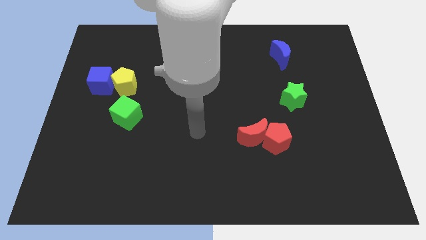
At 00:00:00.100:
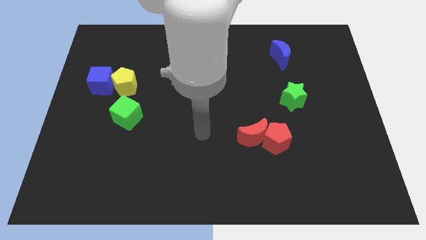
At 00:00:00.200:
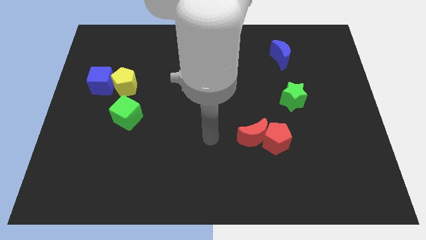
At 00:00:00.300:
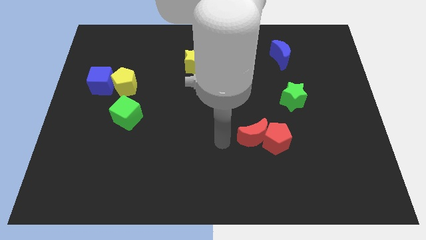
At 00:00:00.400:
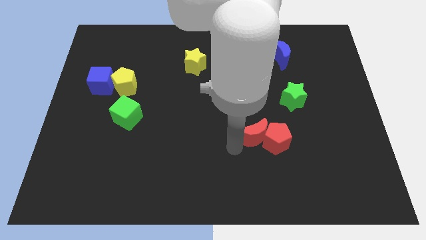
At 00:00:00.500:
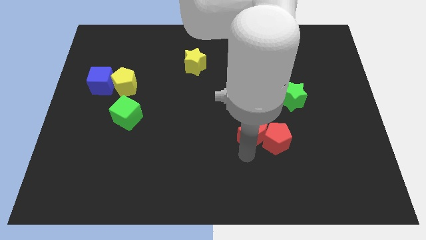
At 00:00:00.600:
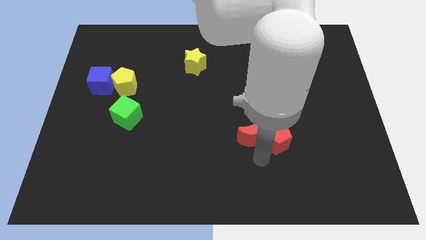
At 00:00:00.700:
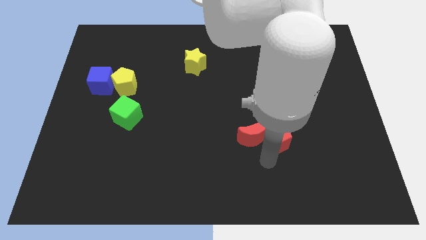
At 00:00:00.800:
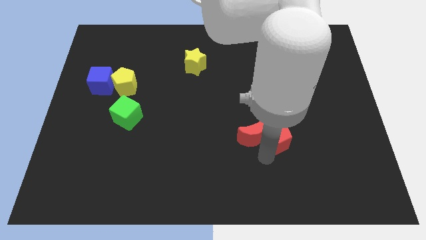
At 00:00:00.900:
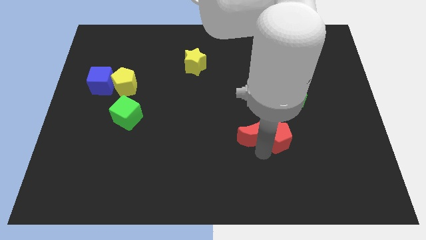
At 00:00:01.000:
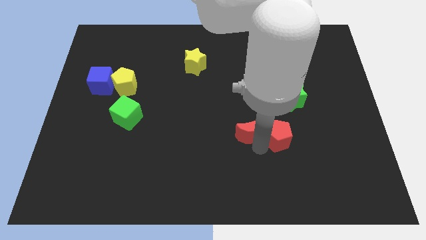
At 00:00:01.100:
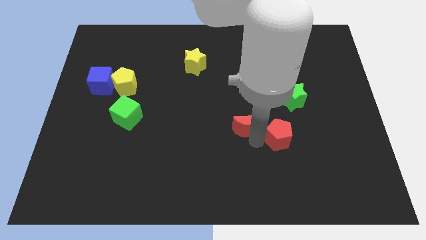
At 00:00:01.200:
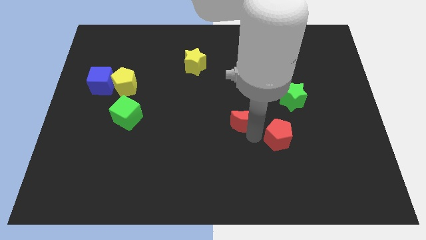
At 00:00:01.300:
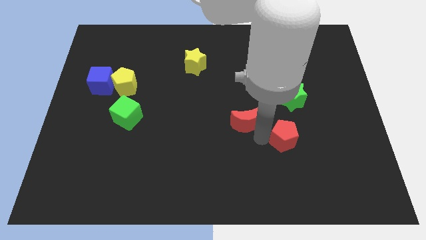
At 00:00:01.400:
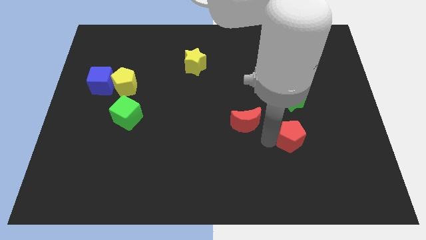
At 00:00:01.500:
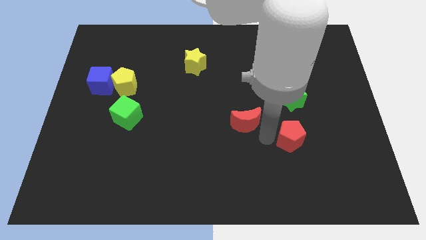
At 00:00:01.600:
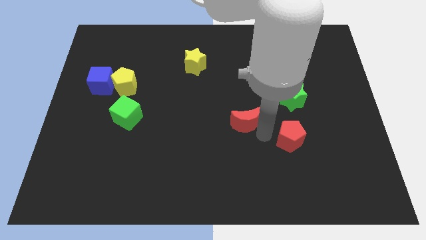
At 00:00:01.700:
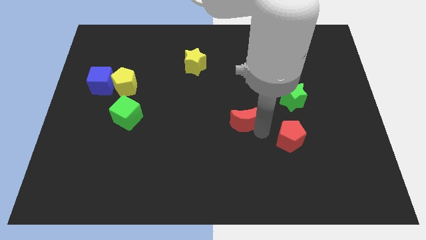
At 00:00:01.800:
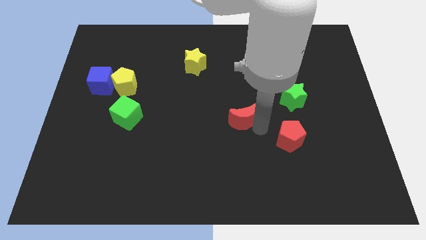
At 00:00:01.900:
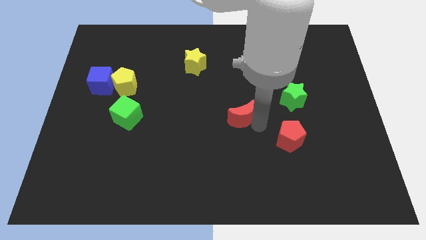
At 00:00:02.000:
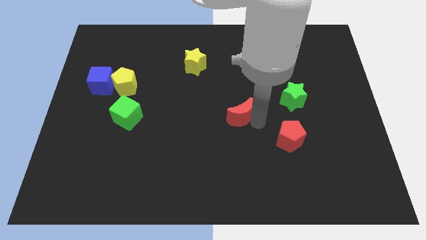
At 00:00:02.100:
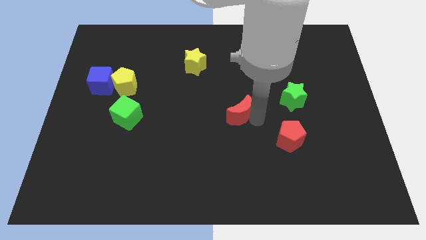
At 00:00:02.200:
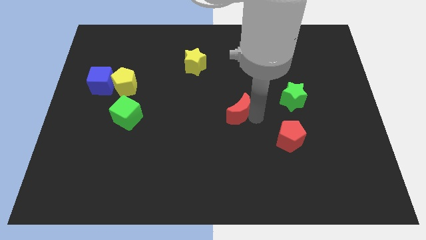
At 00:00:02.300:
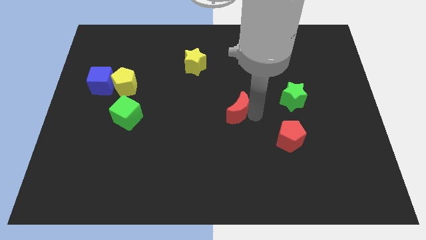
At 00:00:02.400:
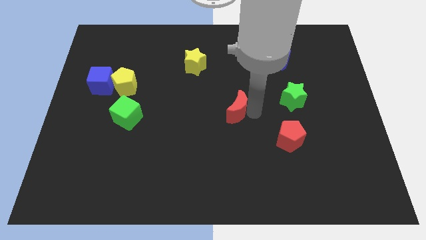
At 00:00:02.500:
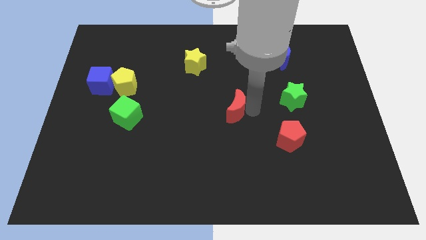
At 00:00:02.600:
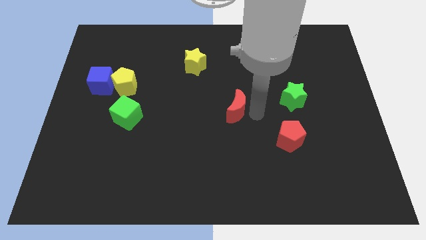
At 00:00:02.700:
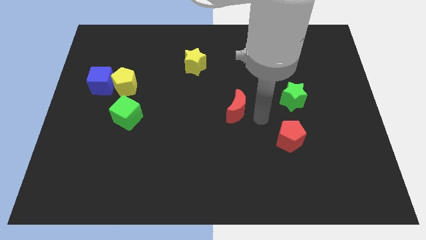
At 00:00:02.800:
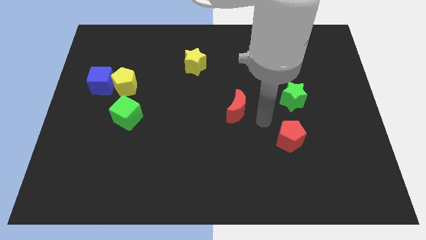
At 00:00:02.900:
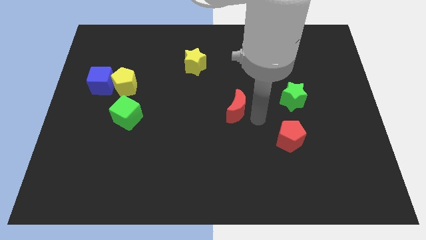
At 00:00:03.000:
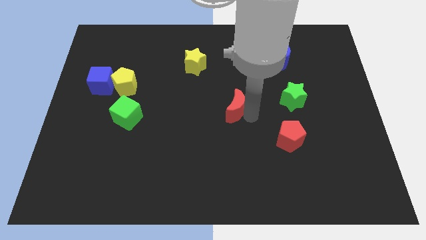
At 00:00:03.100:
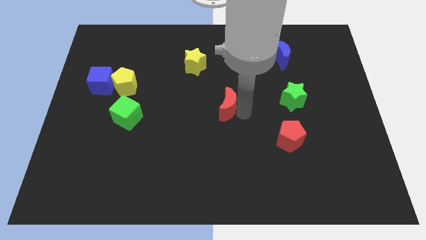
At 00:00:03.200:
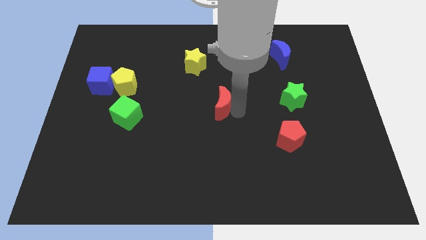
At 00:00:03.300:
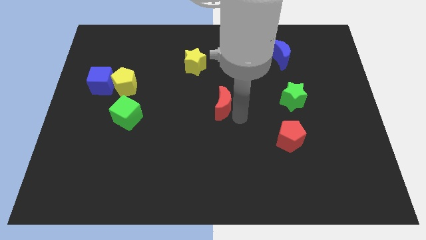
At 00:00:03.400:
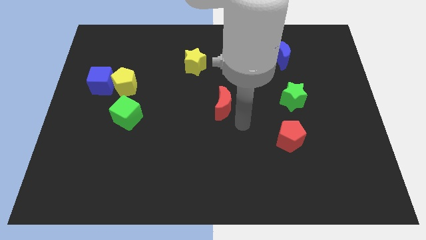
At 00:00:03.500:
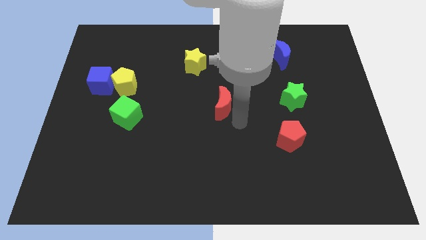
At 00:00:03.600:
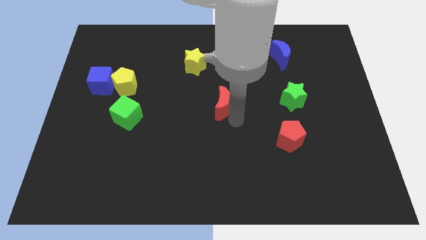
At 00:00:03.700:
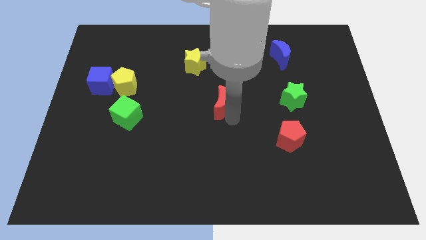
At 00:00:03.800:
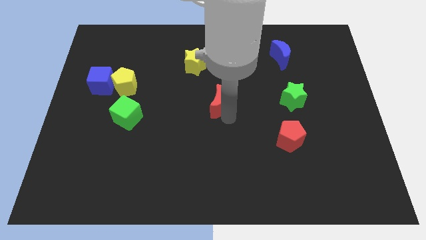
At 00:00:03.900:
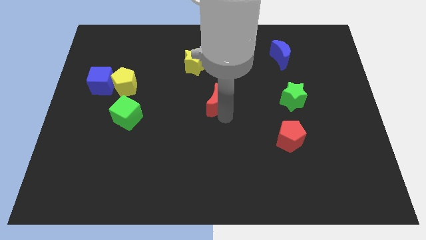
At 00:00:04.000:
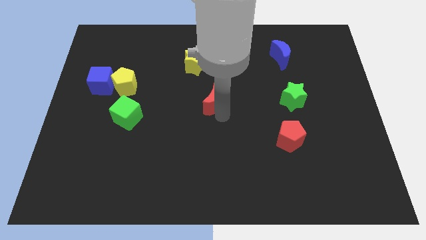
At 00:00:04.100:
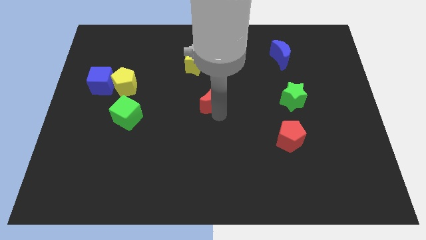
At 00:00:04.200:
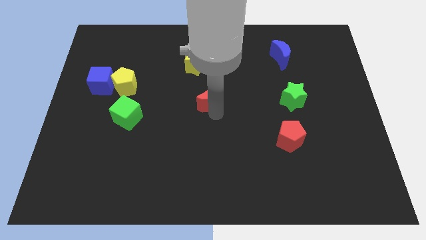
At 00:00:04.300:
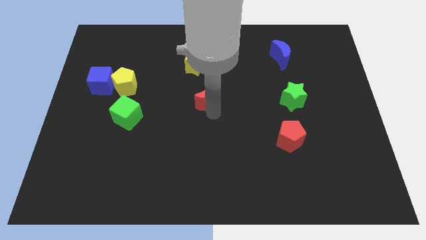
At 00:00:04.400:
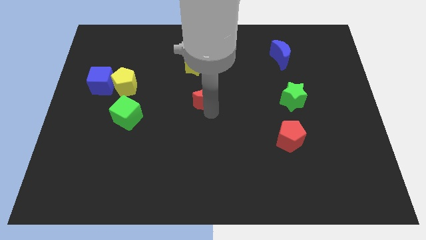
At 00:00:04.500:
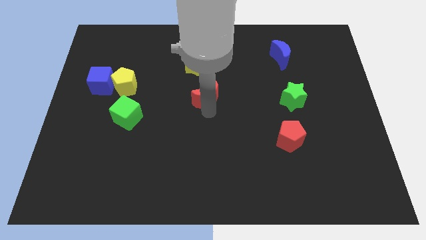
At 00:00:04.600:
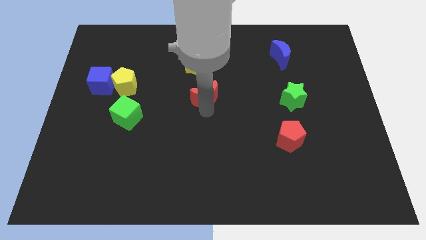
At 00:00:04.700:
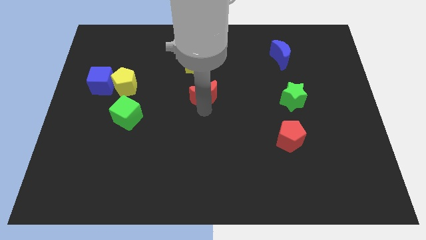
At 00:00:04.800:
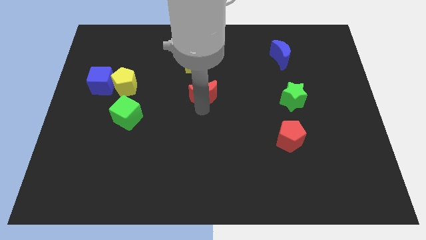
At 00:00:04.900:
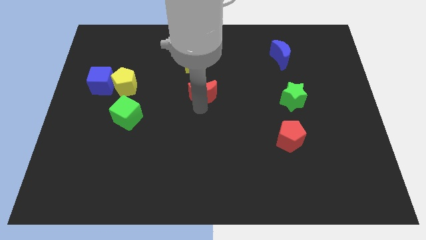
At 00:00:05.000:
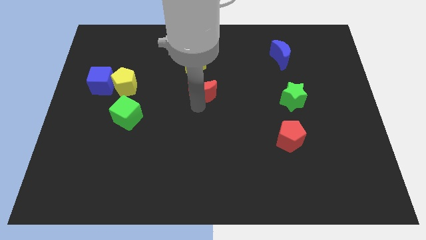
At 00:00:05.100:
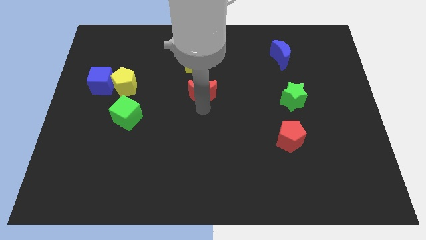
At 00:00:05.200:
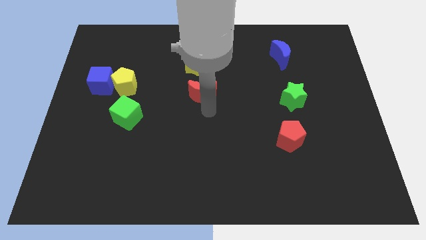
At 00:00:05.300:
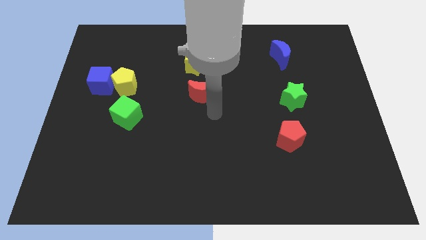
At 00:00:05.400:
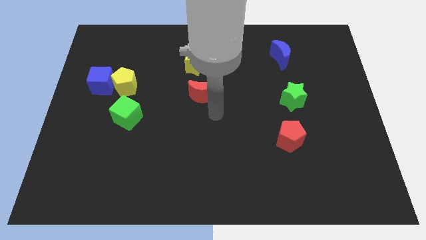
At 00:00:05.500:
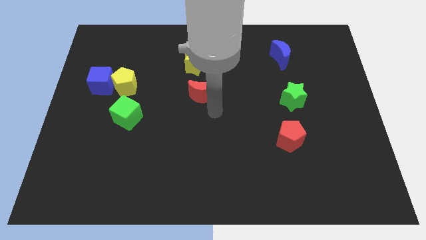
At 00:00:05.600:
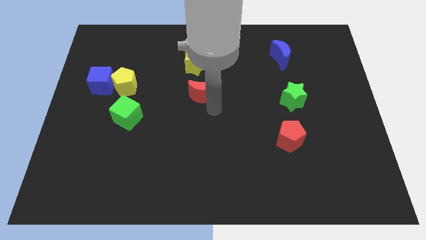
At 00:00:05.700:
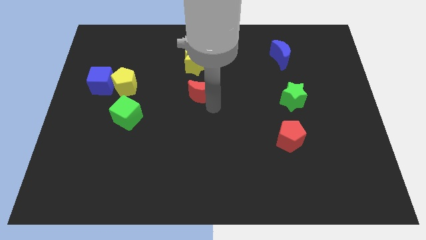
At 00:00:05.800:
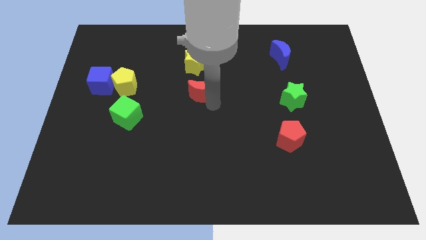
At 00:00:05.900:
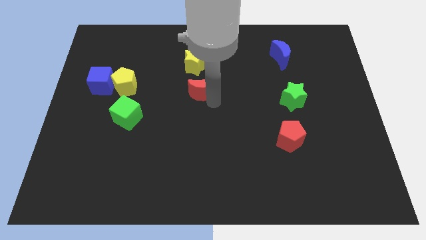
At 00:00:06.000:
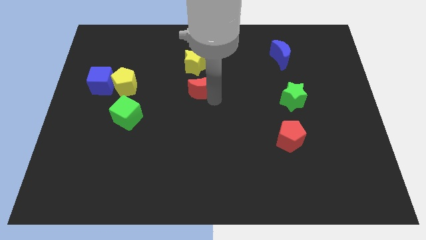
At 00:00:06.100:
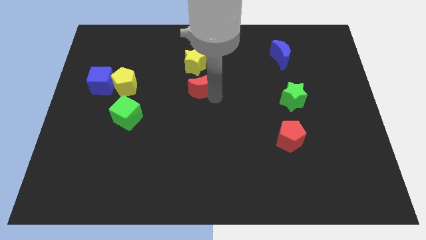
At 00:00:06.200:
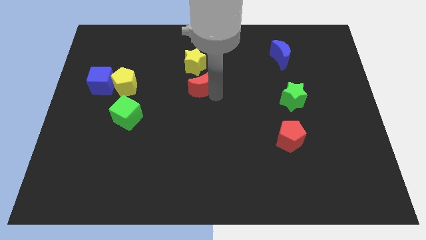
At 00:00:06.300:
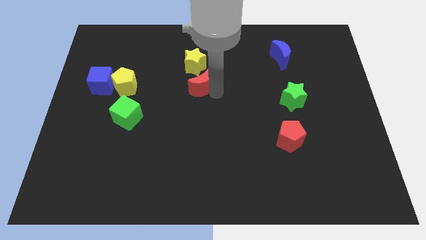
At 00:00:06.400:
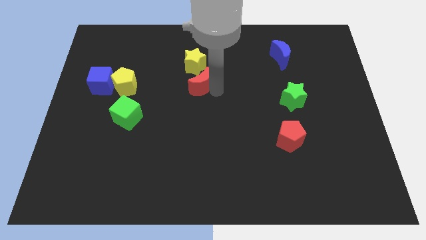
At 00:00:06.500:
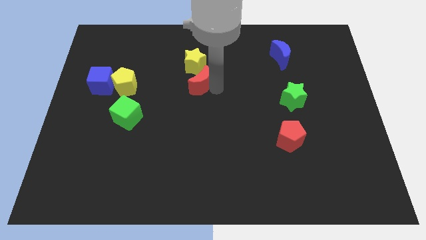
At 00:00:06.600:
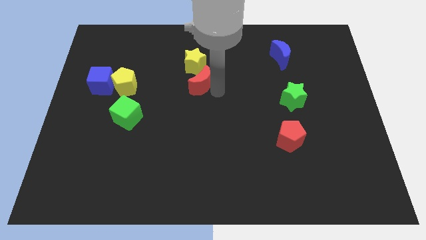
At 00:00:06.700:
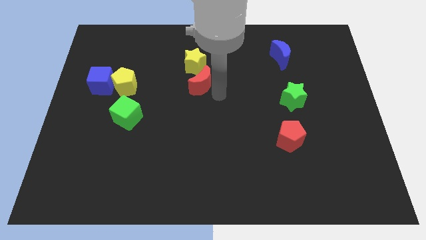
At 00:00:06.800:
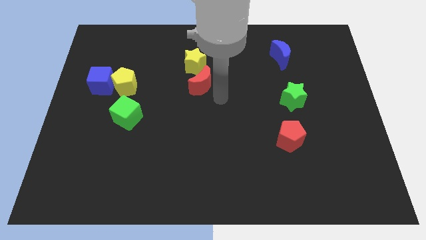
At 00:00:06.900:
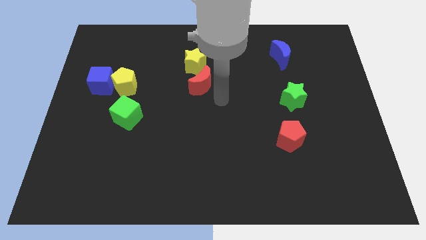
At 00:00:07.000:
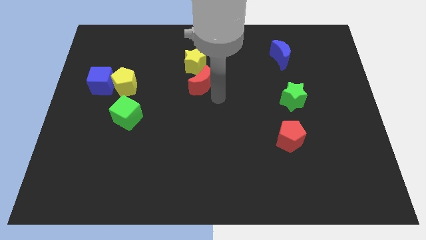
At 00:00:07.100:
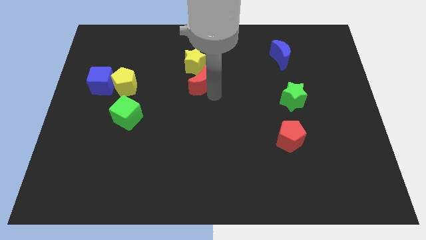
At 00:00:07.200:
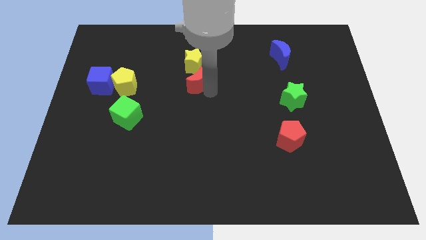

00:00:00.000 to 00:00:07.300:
slide the red moon up and left diagonally

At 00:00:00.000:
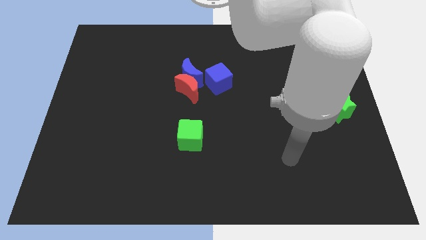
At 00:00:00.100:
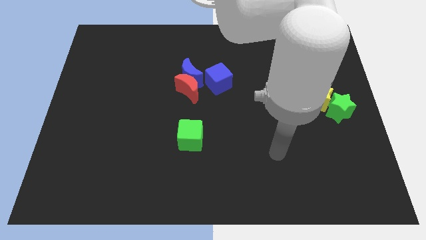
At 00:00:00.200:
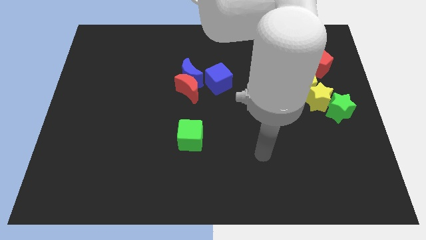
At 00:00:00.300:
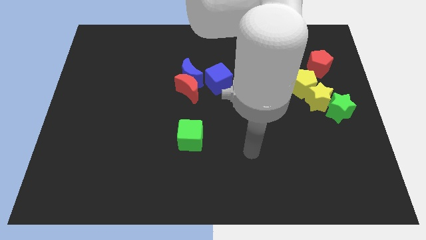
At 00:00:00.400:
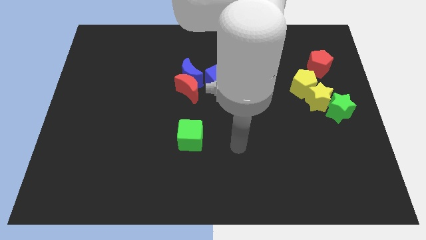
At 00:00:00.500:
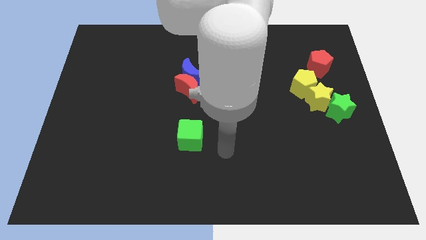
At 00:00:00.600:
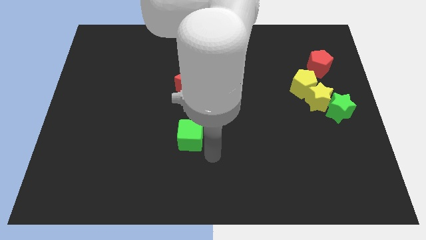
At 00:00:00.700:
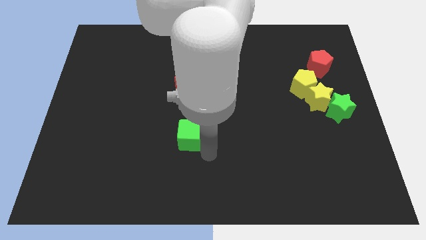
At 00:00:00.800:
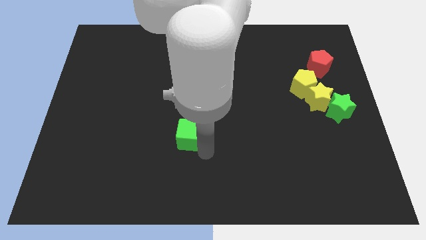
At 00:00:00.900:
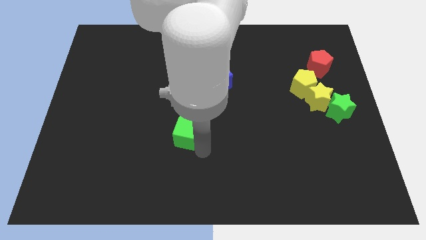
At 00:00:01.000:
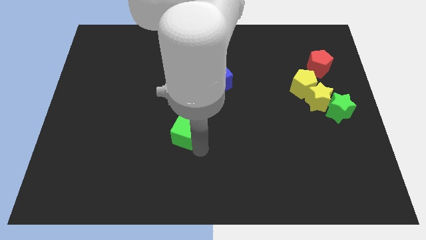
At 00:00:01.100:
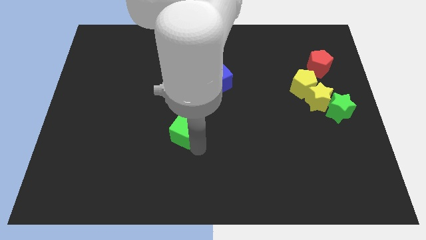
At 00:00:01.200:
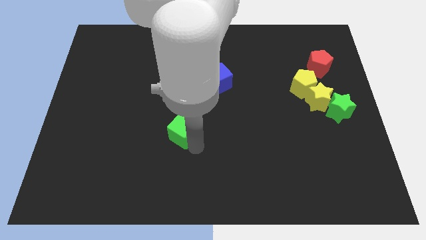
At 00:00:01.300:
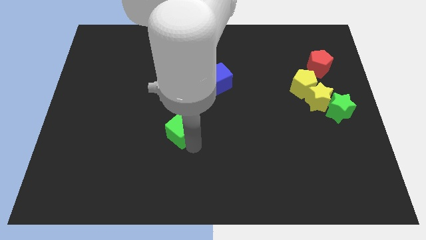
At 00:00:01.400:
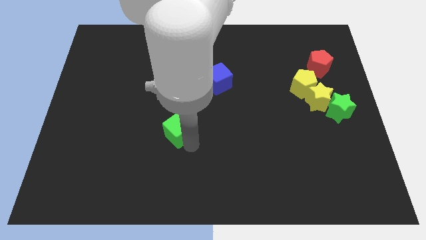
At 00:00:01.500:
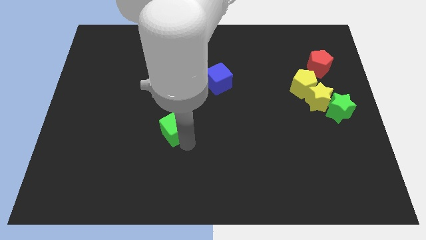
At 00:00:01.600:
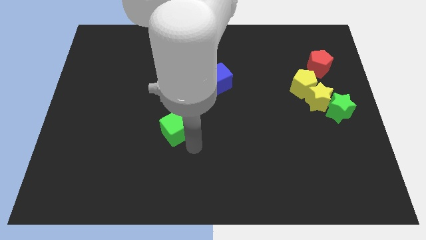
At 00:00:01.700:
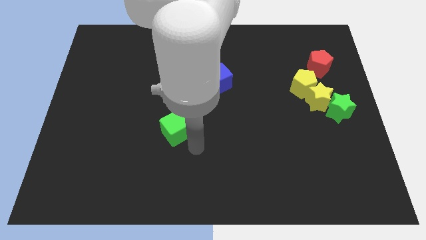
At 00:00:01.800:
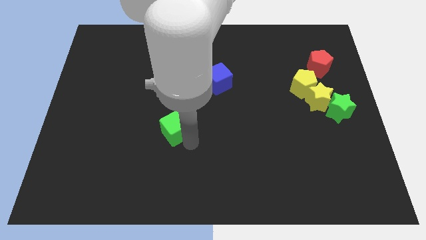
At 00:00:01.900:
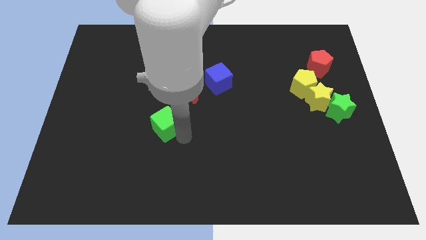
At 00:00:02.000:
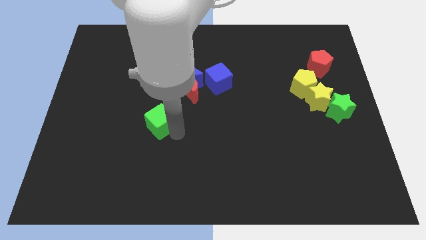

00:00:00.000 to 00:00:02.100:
slightly move the green cube diagonally up and left
